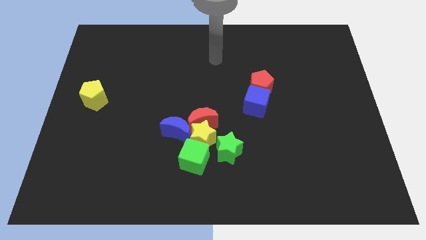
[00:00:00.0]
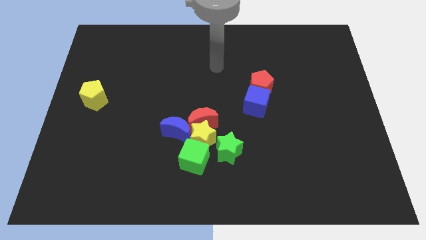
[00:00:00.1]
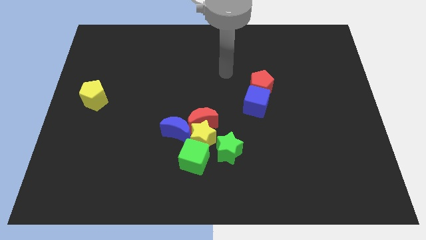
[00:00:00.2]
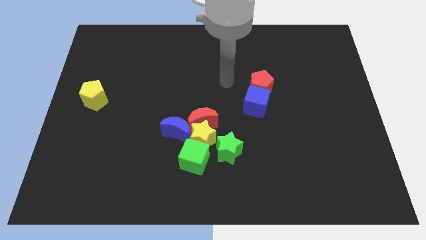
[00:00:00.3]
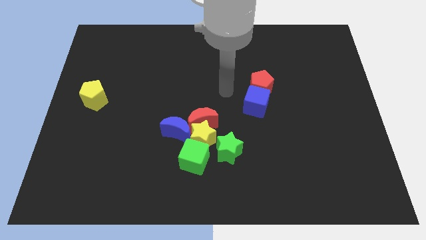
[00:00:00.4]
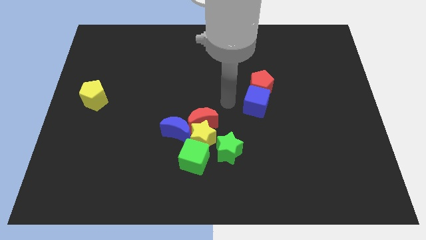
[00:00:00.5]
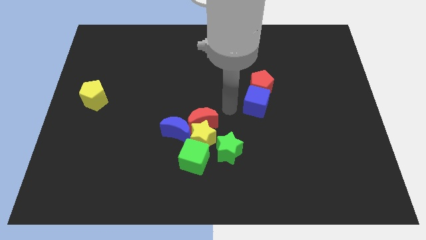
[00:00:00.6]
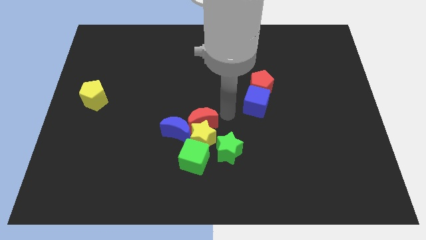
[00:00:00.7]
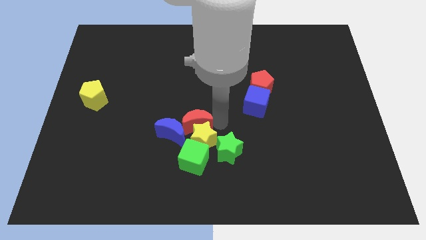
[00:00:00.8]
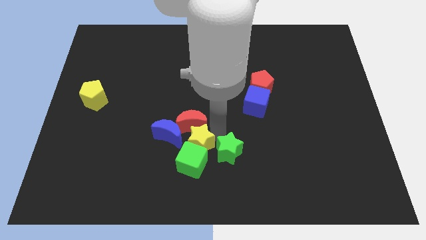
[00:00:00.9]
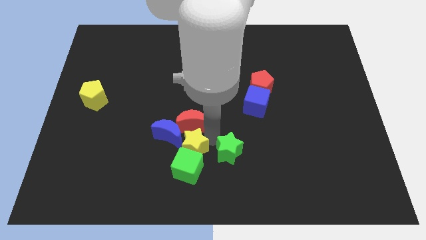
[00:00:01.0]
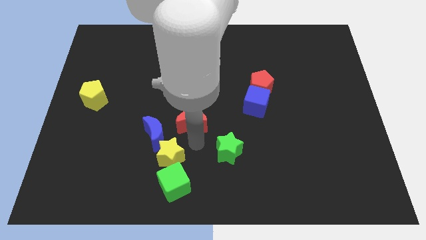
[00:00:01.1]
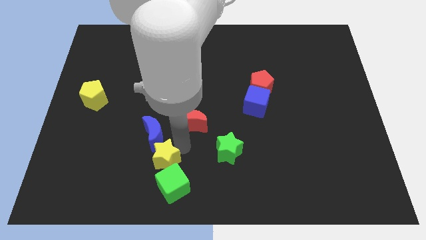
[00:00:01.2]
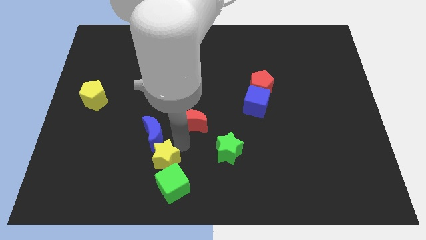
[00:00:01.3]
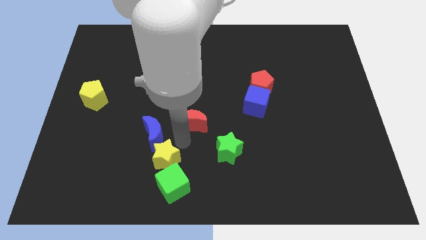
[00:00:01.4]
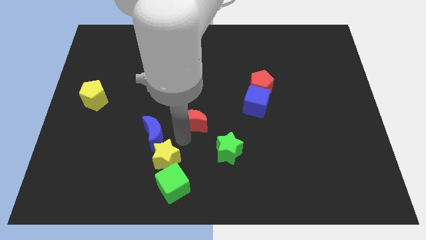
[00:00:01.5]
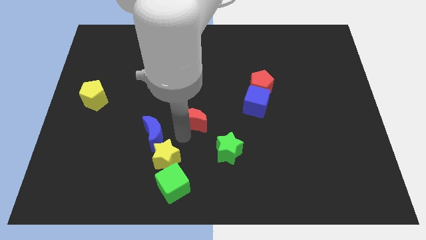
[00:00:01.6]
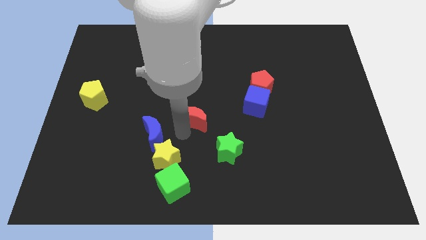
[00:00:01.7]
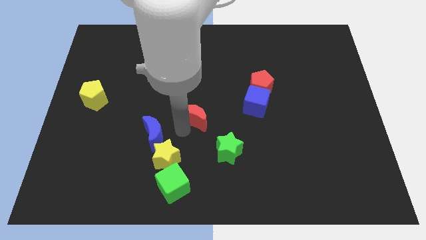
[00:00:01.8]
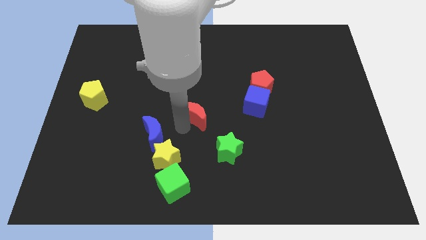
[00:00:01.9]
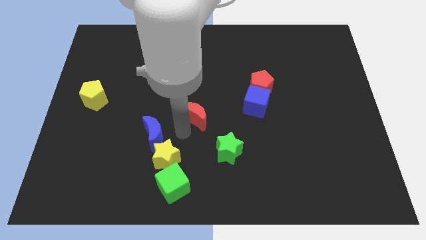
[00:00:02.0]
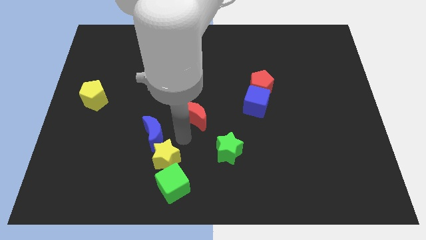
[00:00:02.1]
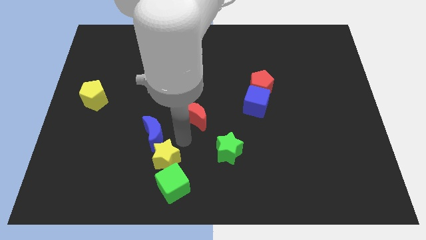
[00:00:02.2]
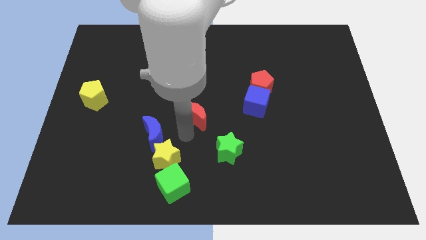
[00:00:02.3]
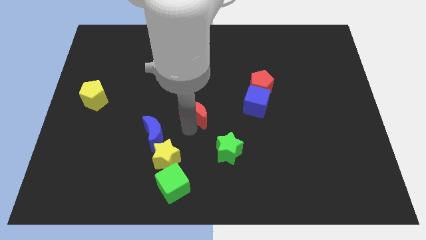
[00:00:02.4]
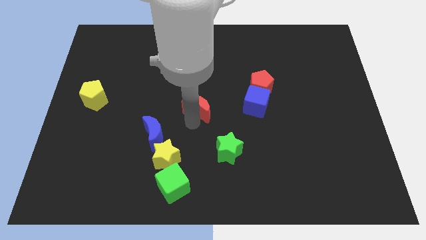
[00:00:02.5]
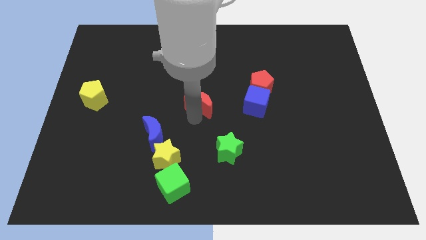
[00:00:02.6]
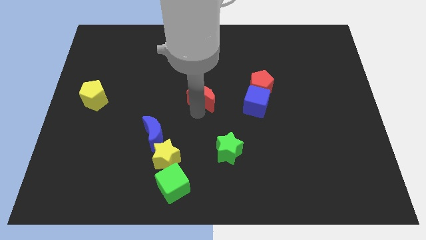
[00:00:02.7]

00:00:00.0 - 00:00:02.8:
slightly move the red moon upwards

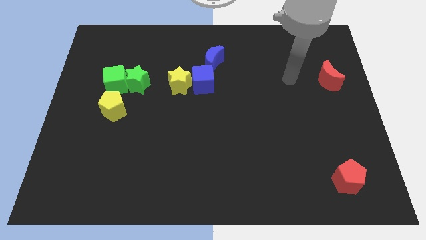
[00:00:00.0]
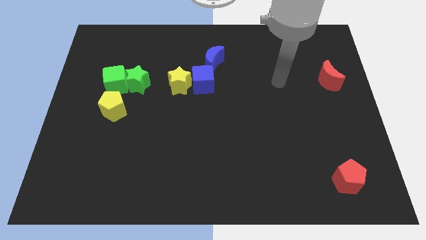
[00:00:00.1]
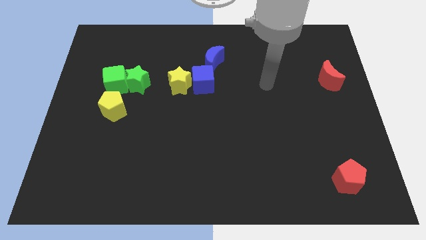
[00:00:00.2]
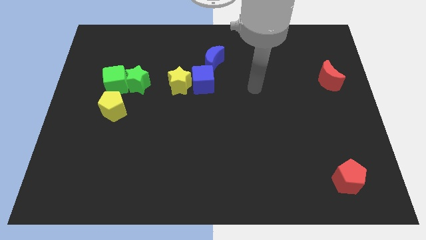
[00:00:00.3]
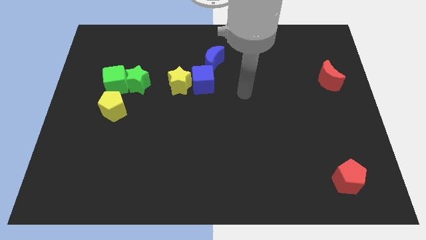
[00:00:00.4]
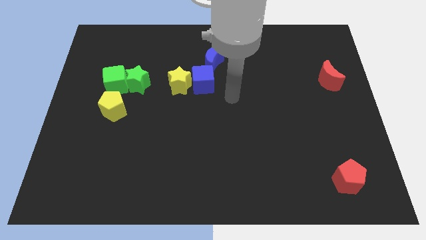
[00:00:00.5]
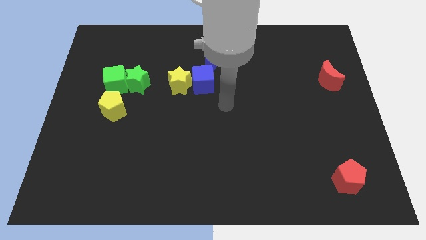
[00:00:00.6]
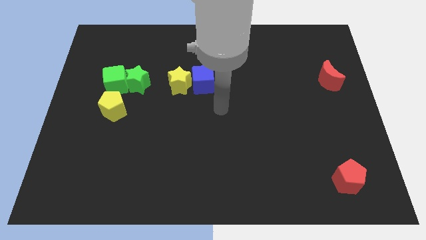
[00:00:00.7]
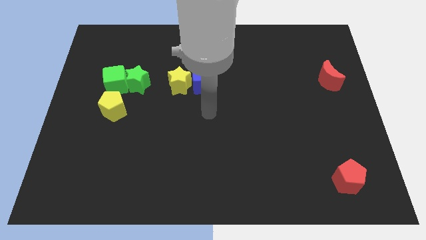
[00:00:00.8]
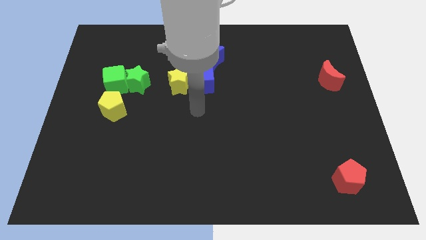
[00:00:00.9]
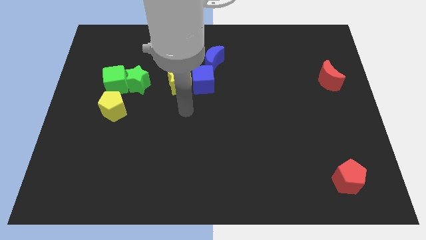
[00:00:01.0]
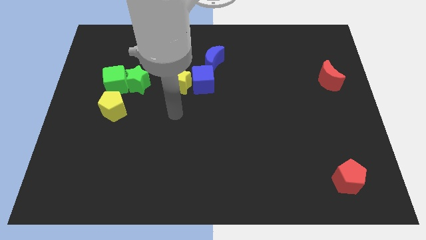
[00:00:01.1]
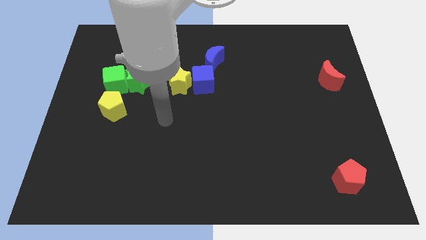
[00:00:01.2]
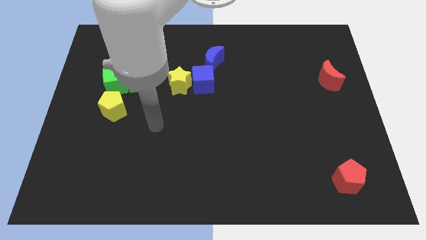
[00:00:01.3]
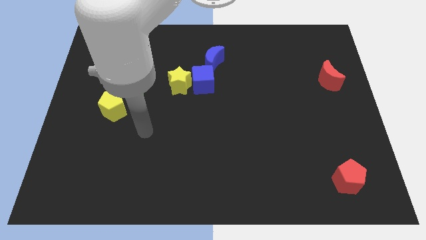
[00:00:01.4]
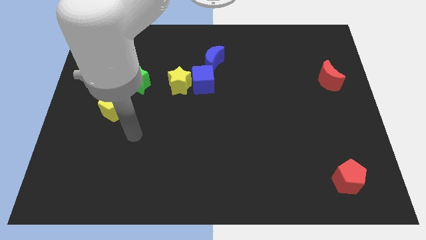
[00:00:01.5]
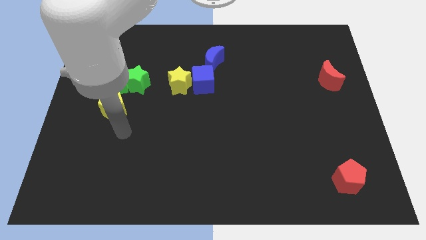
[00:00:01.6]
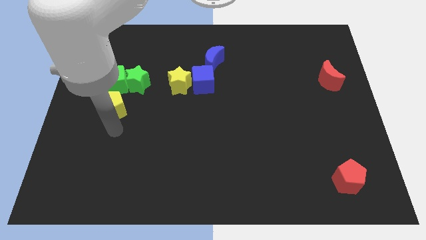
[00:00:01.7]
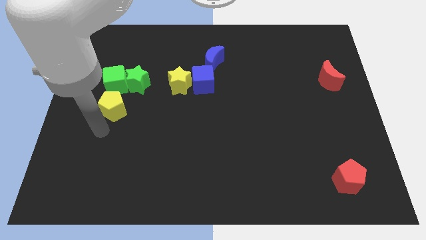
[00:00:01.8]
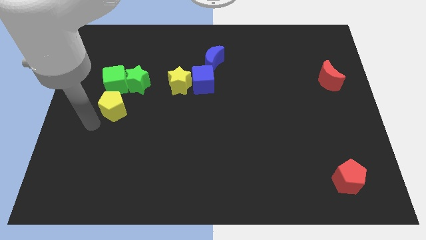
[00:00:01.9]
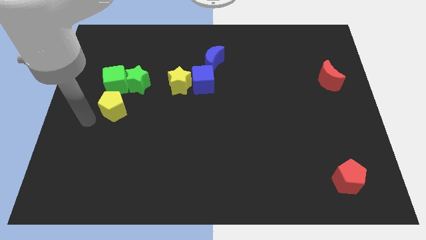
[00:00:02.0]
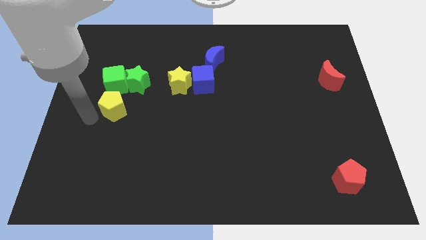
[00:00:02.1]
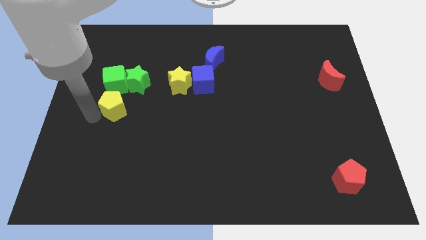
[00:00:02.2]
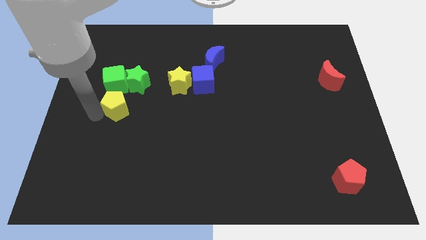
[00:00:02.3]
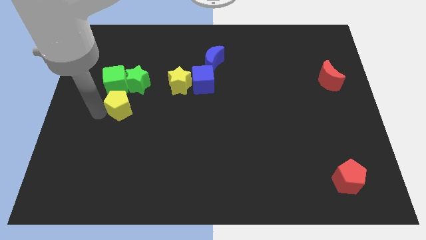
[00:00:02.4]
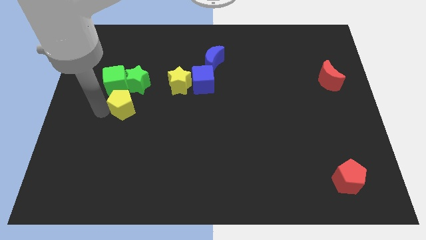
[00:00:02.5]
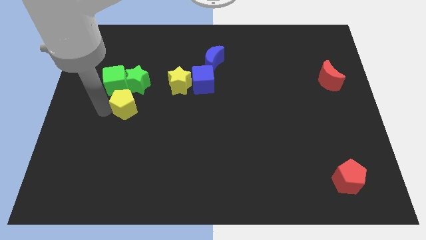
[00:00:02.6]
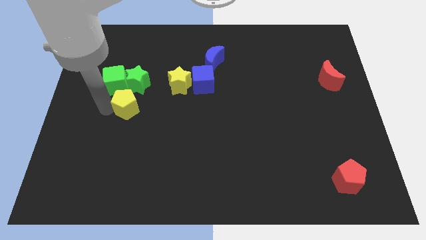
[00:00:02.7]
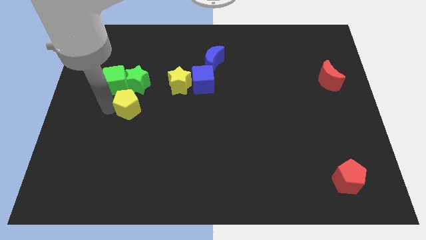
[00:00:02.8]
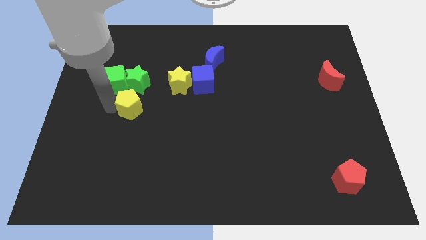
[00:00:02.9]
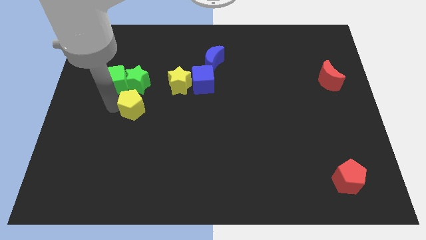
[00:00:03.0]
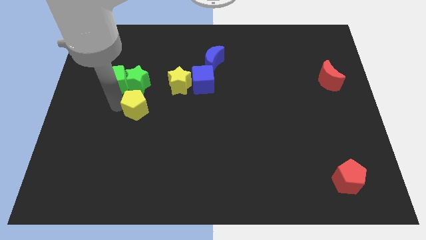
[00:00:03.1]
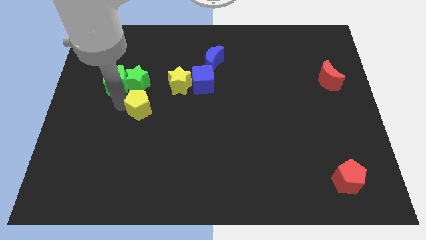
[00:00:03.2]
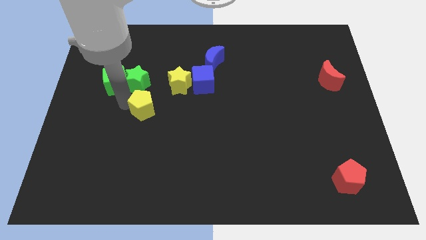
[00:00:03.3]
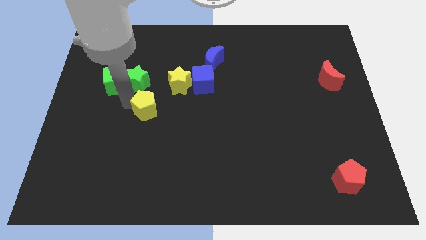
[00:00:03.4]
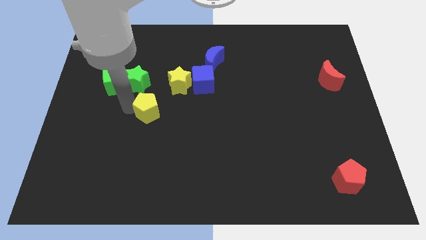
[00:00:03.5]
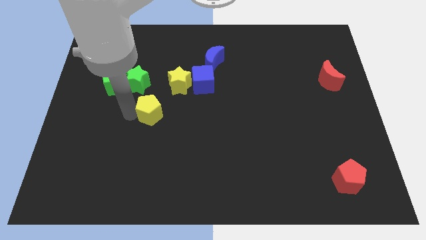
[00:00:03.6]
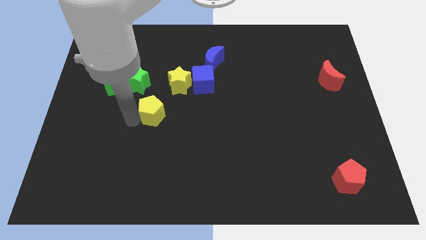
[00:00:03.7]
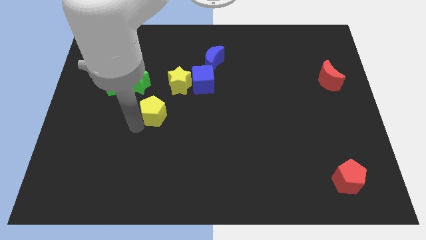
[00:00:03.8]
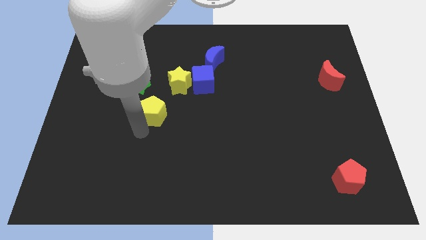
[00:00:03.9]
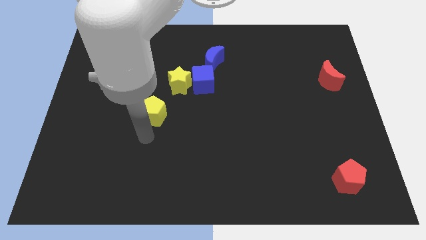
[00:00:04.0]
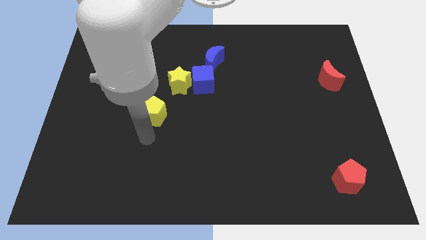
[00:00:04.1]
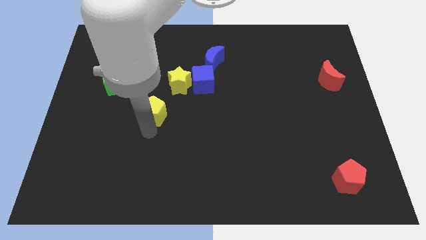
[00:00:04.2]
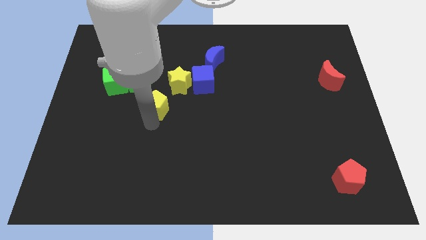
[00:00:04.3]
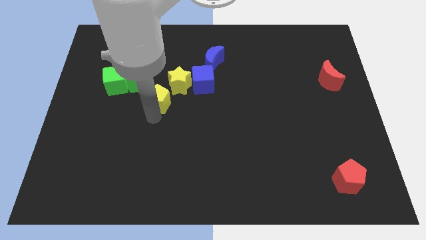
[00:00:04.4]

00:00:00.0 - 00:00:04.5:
slightly push the yellow pentagon upwards and then to the right

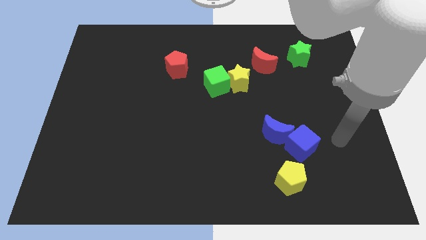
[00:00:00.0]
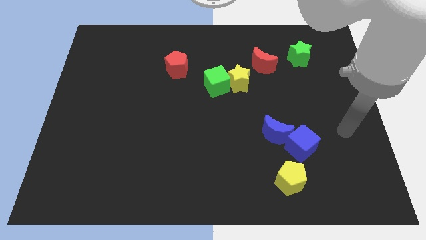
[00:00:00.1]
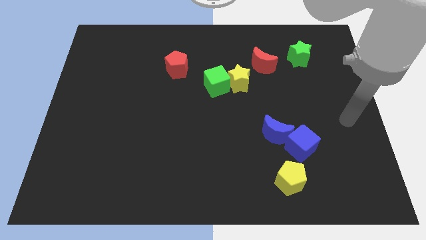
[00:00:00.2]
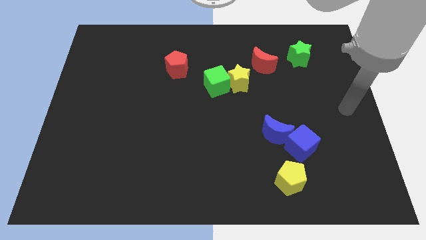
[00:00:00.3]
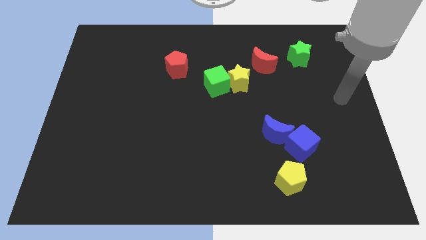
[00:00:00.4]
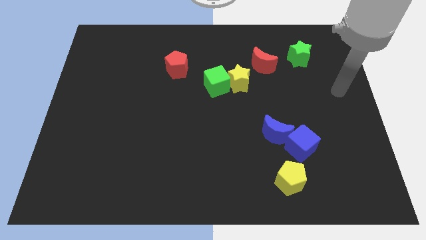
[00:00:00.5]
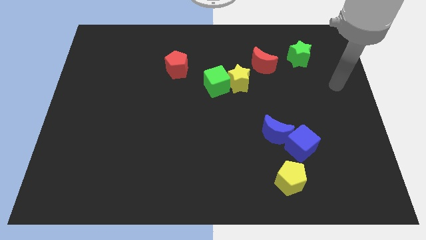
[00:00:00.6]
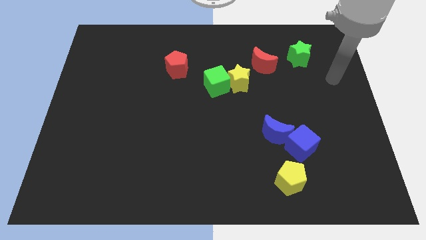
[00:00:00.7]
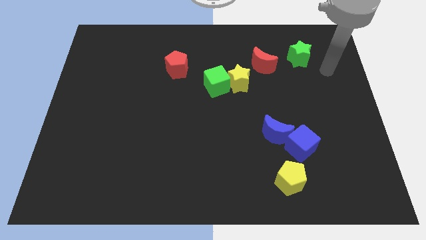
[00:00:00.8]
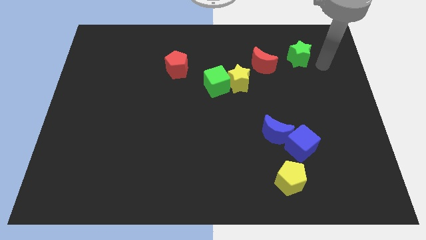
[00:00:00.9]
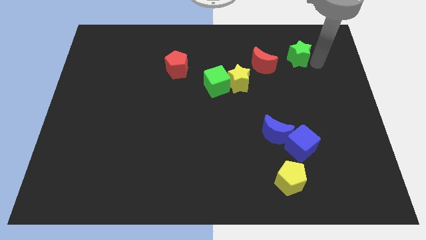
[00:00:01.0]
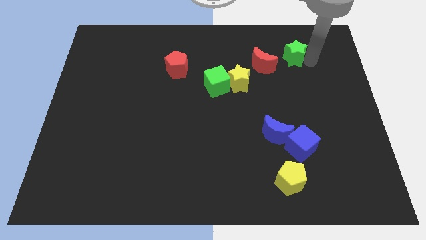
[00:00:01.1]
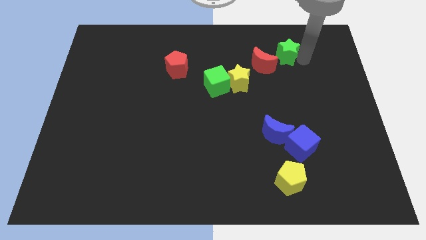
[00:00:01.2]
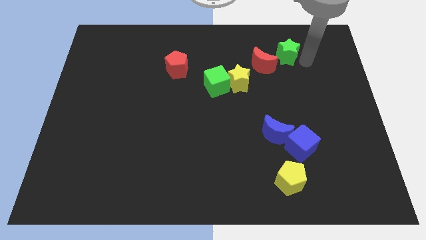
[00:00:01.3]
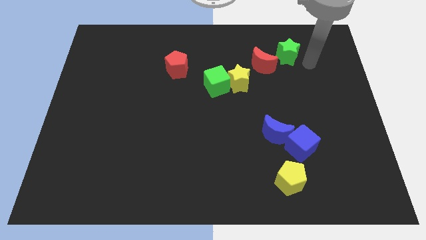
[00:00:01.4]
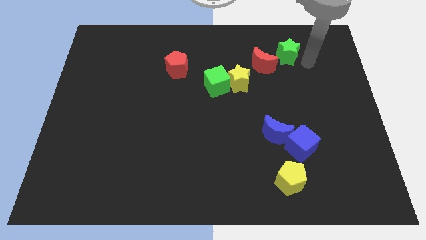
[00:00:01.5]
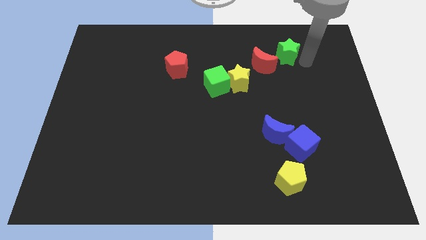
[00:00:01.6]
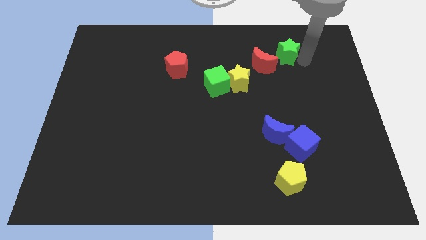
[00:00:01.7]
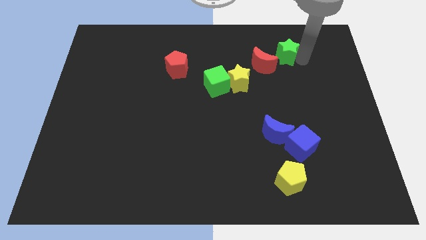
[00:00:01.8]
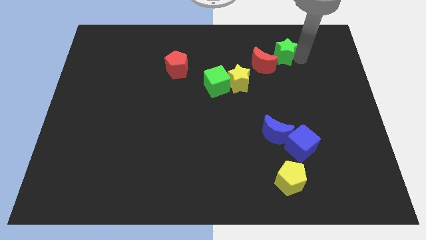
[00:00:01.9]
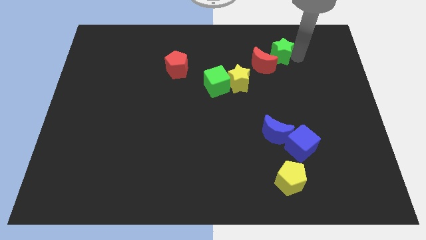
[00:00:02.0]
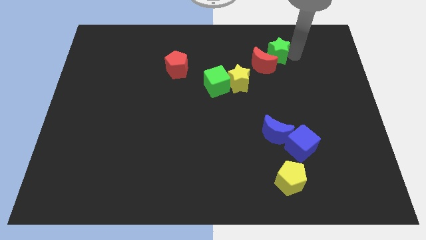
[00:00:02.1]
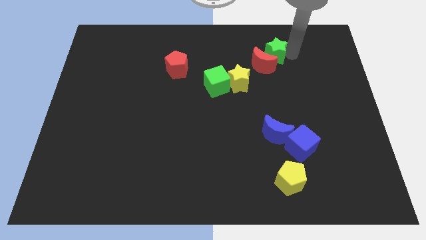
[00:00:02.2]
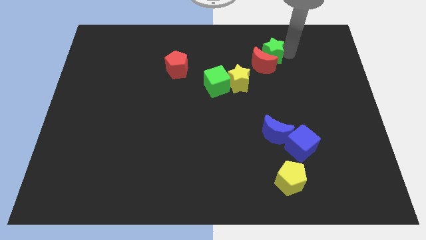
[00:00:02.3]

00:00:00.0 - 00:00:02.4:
move the green star to the left somewhat
